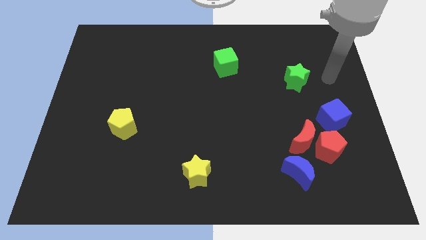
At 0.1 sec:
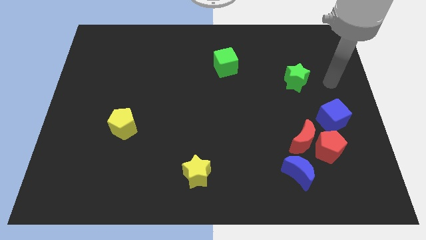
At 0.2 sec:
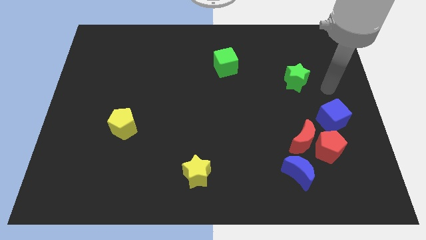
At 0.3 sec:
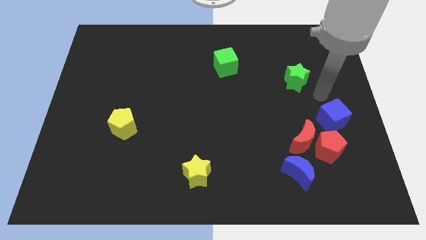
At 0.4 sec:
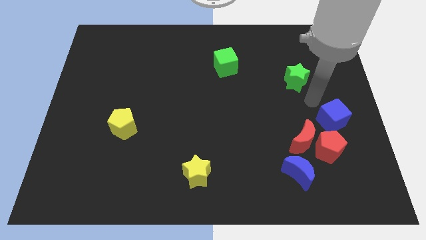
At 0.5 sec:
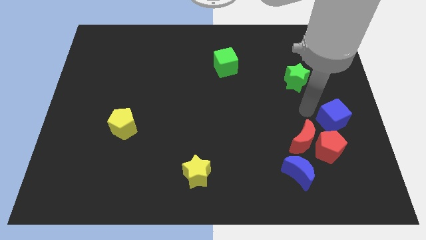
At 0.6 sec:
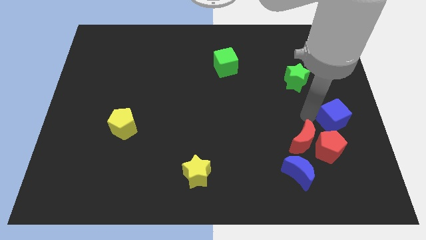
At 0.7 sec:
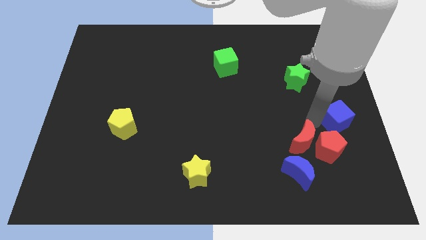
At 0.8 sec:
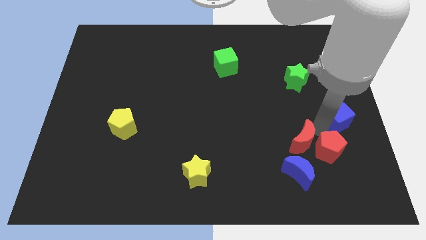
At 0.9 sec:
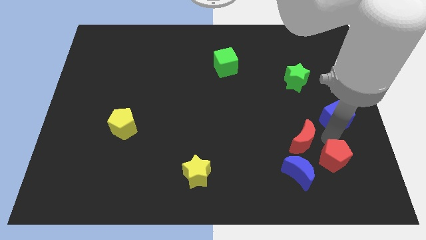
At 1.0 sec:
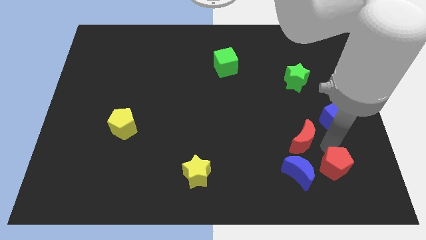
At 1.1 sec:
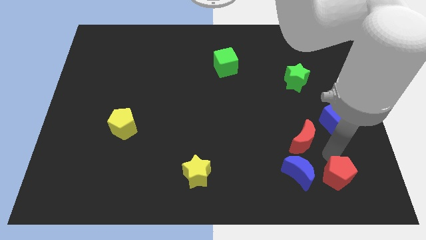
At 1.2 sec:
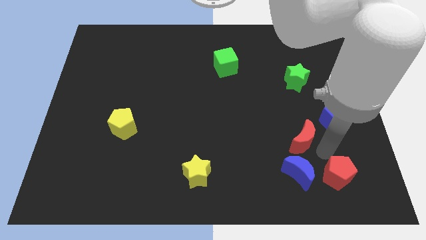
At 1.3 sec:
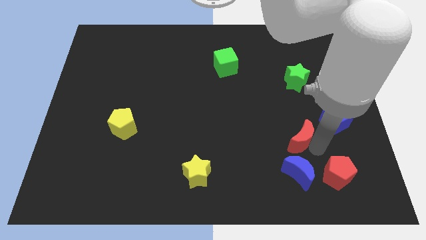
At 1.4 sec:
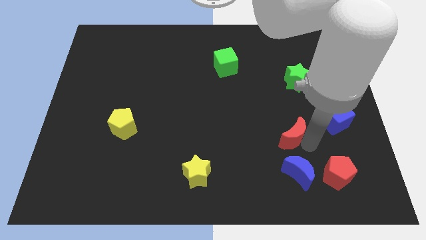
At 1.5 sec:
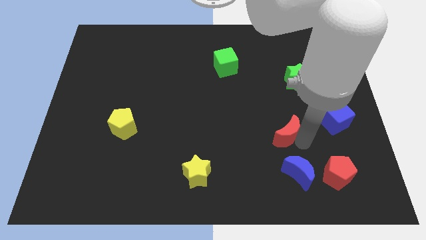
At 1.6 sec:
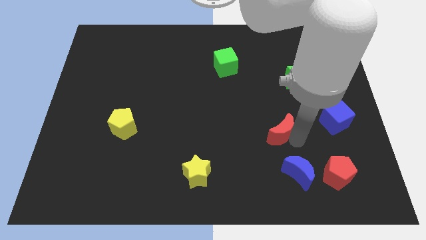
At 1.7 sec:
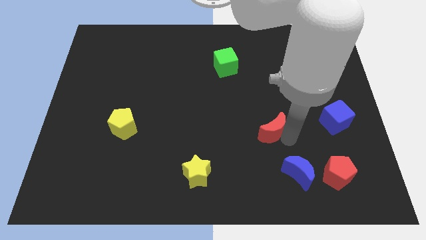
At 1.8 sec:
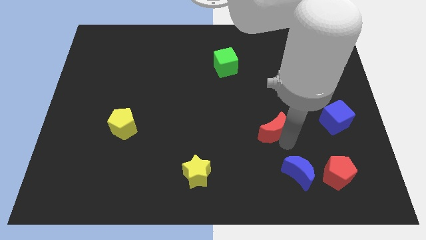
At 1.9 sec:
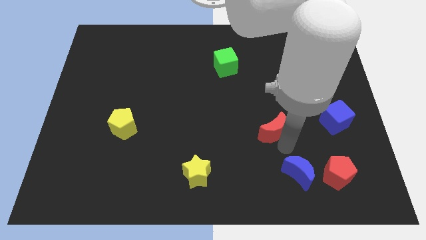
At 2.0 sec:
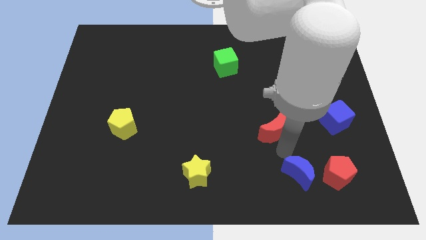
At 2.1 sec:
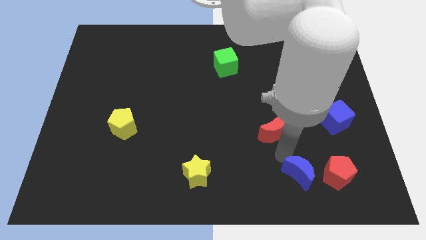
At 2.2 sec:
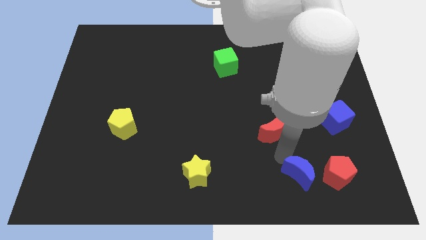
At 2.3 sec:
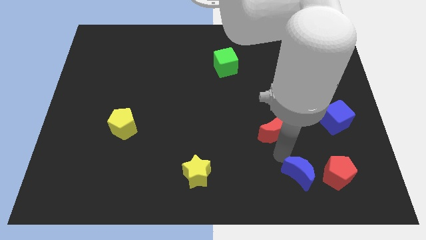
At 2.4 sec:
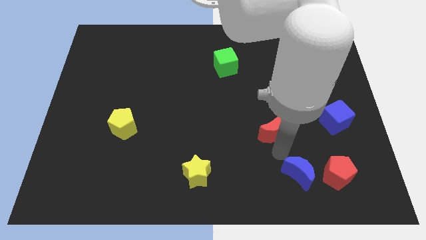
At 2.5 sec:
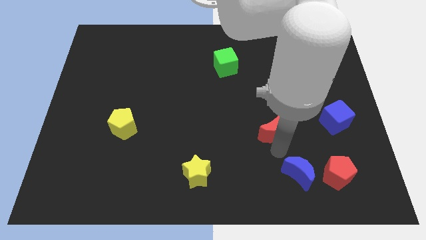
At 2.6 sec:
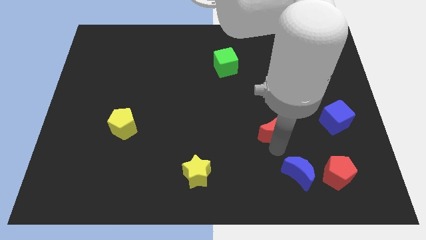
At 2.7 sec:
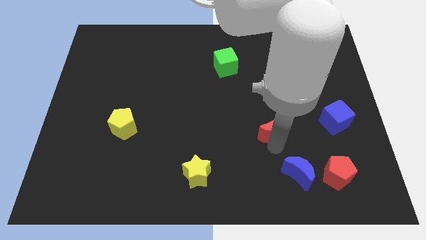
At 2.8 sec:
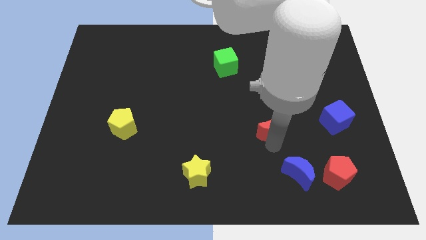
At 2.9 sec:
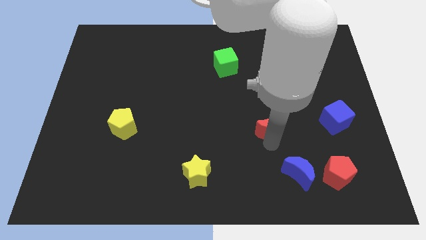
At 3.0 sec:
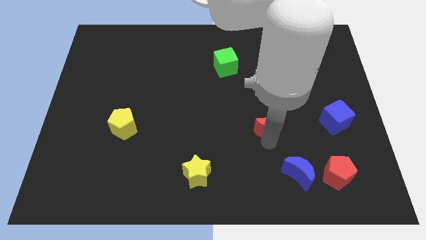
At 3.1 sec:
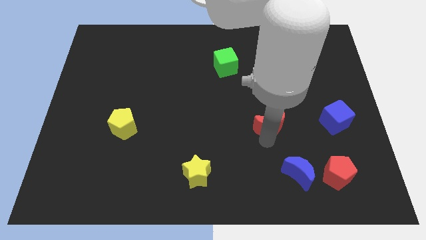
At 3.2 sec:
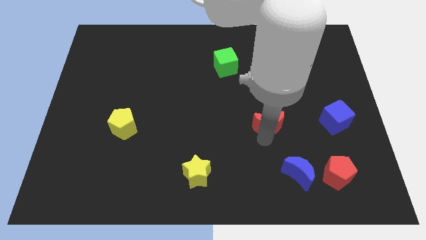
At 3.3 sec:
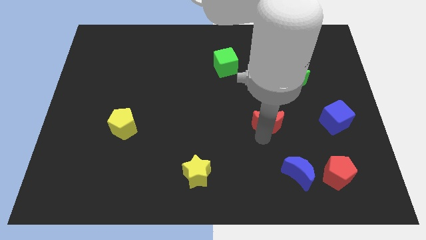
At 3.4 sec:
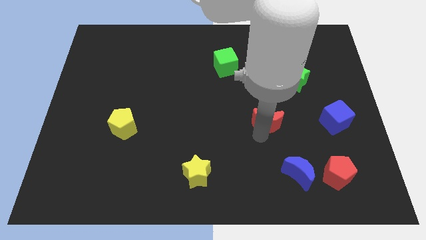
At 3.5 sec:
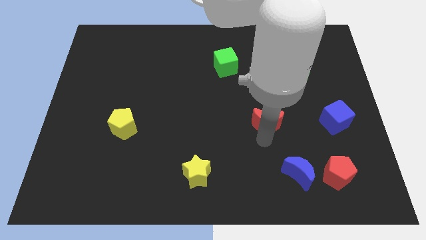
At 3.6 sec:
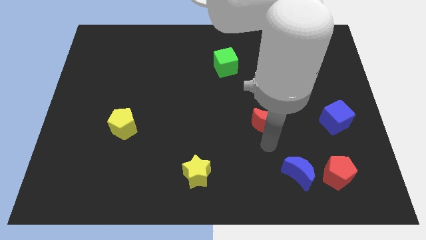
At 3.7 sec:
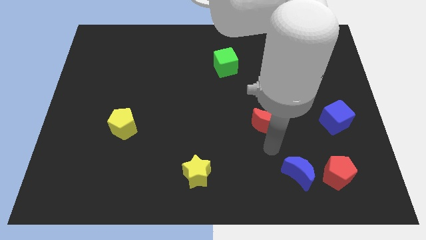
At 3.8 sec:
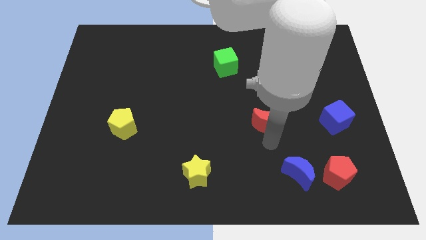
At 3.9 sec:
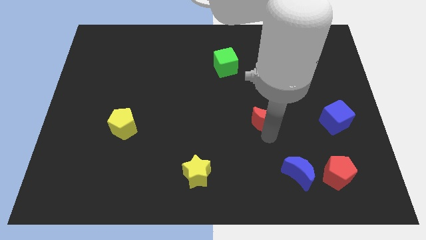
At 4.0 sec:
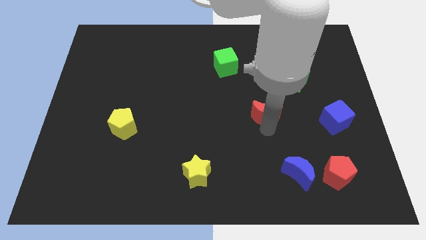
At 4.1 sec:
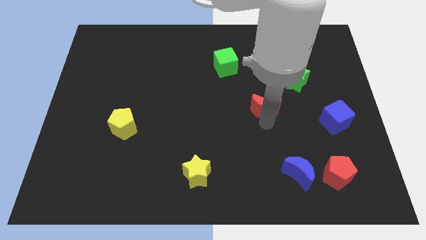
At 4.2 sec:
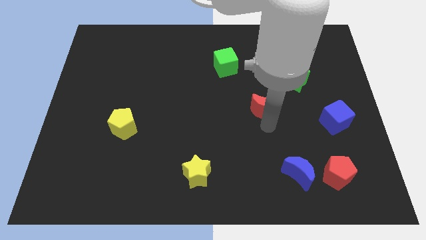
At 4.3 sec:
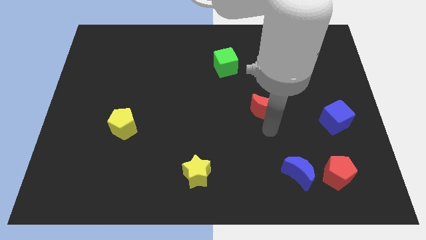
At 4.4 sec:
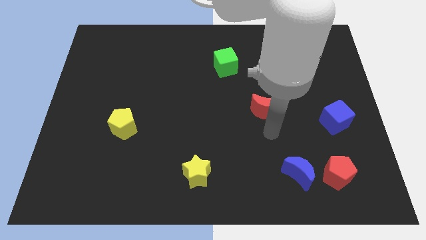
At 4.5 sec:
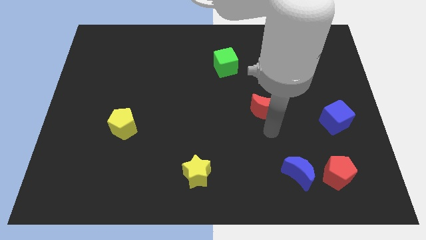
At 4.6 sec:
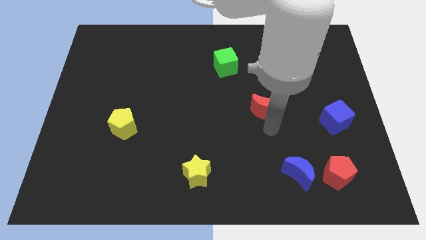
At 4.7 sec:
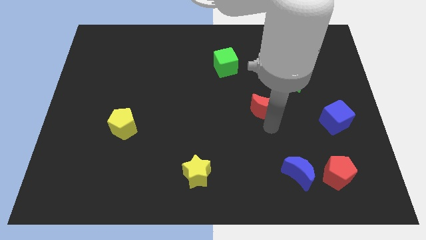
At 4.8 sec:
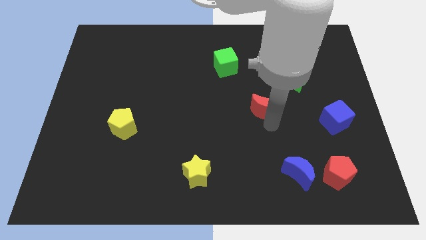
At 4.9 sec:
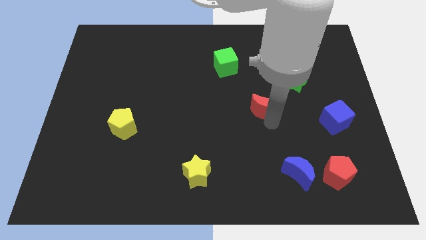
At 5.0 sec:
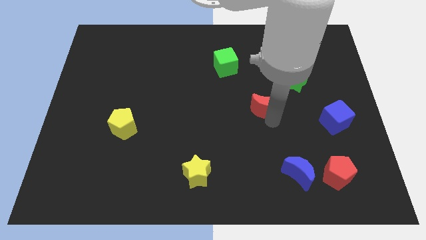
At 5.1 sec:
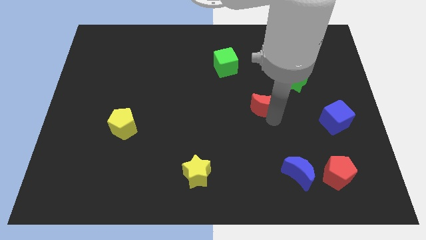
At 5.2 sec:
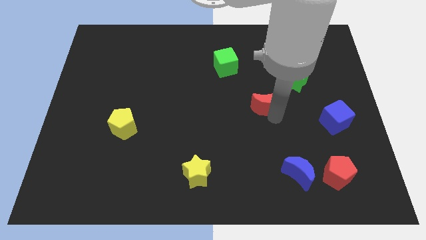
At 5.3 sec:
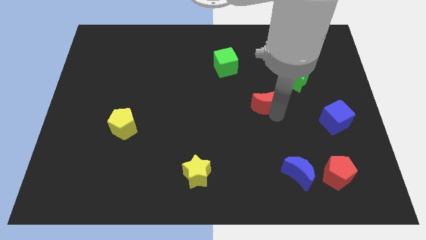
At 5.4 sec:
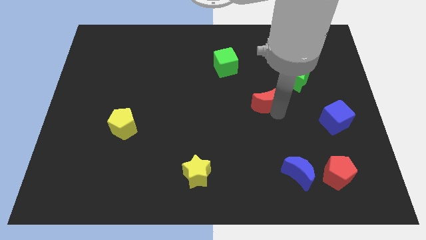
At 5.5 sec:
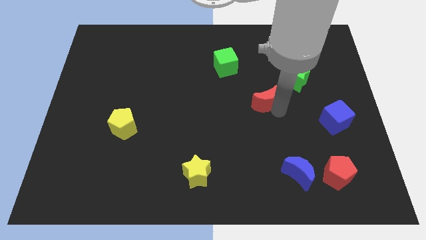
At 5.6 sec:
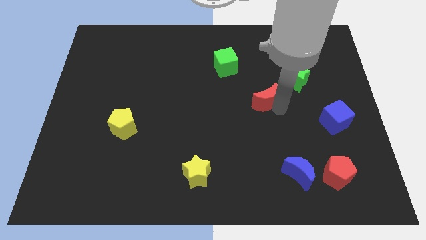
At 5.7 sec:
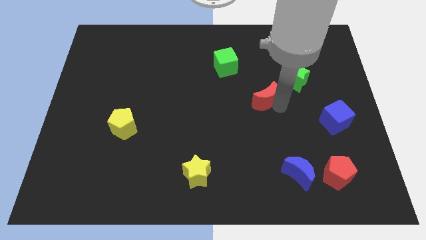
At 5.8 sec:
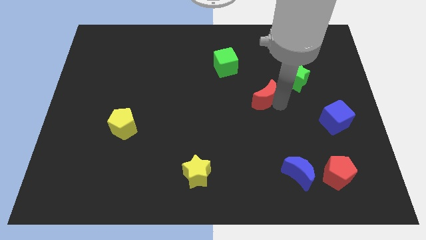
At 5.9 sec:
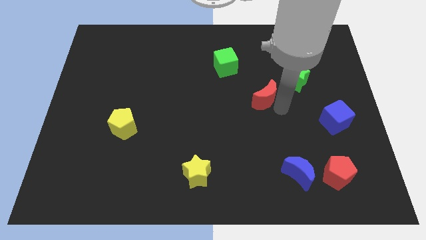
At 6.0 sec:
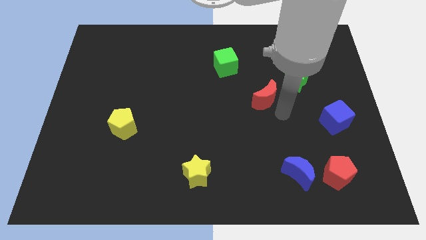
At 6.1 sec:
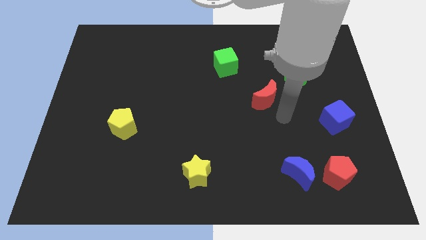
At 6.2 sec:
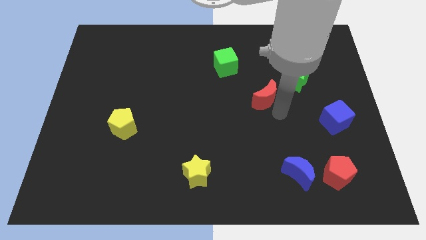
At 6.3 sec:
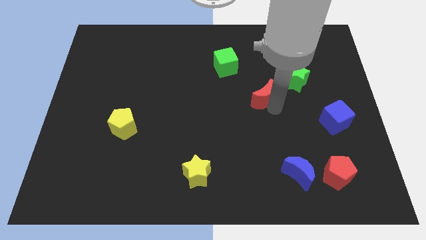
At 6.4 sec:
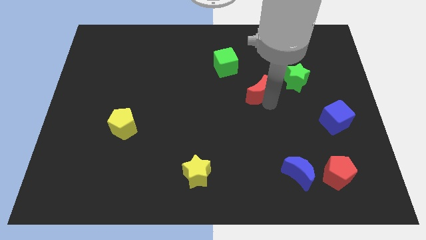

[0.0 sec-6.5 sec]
slide the red moon to the bottom right side of the green cube

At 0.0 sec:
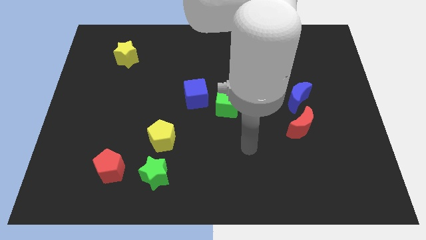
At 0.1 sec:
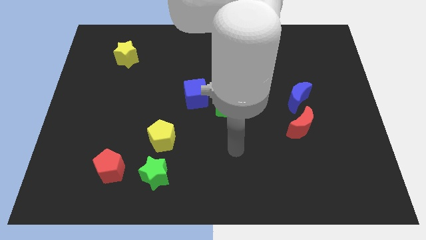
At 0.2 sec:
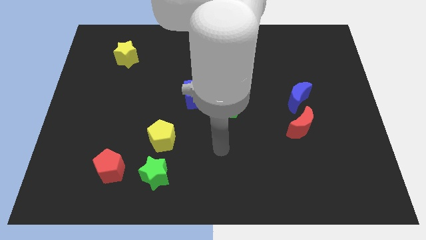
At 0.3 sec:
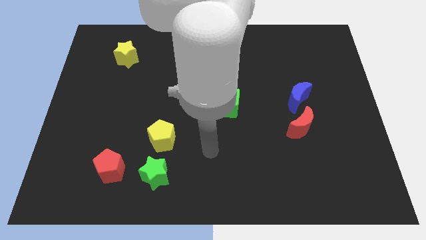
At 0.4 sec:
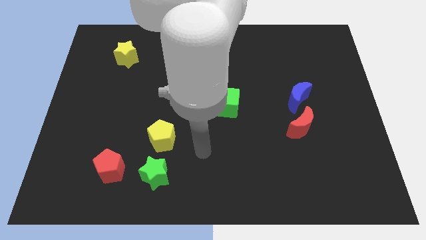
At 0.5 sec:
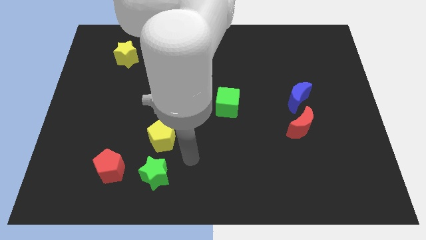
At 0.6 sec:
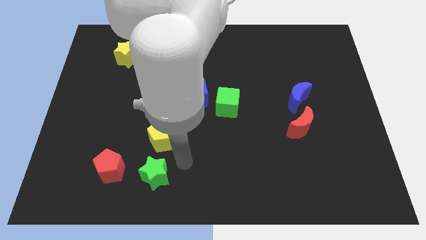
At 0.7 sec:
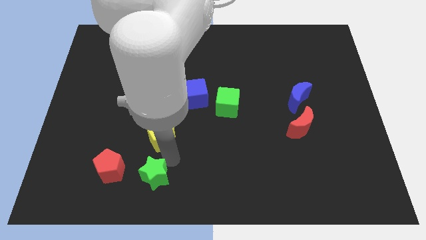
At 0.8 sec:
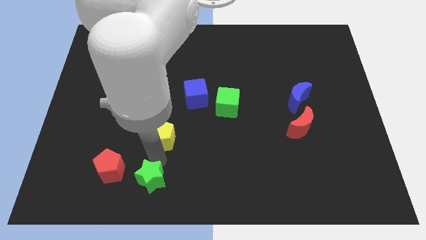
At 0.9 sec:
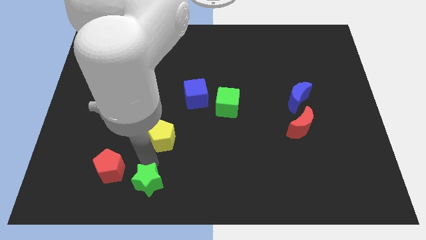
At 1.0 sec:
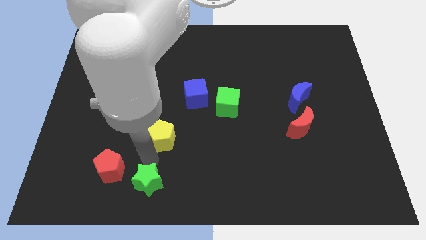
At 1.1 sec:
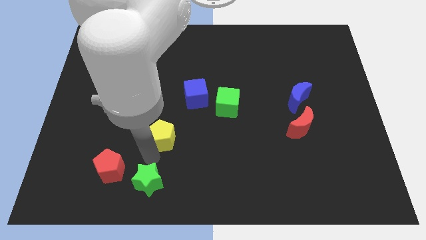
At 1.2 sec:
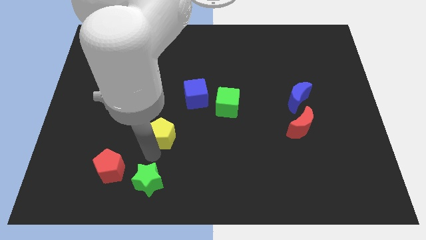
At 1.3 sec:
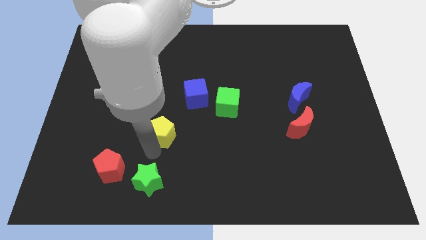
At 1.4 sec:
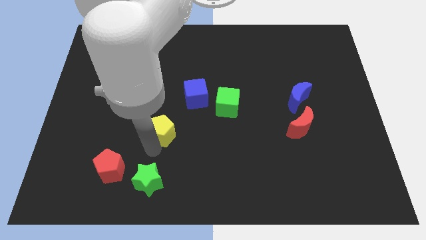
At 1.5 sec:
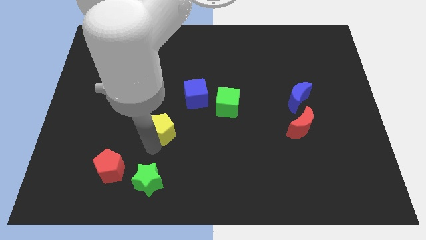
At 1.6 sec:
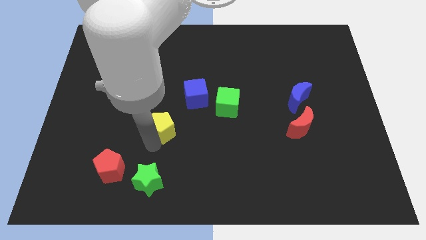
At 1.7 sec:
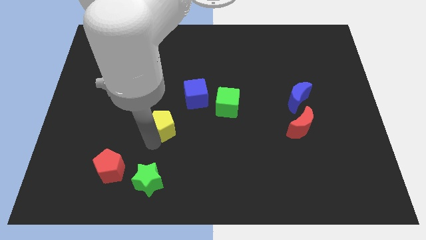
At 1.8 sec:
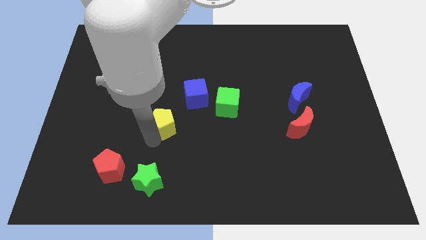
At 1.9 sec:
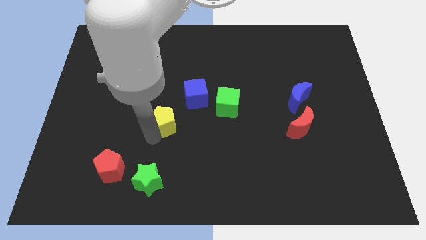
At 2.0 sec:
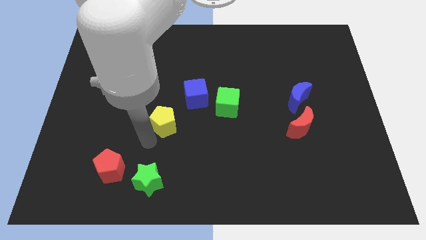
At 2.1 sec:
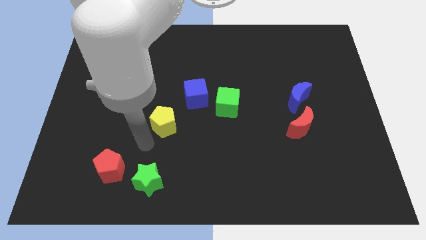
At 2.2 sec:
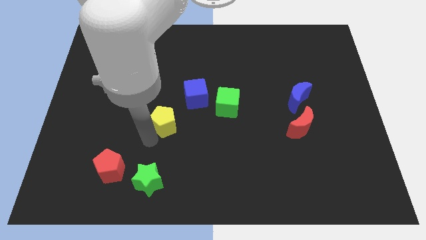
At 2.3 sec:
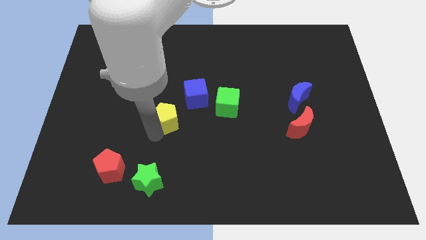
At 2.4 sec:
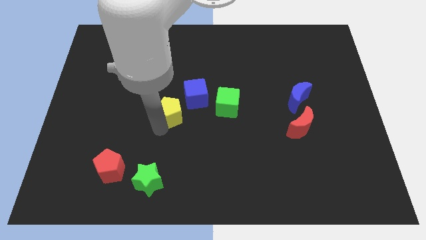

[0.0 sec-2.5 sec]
put the yellow pentagon to the left of the green cube
